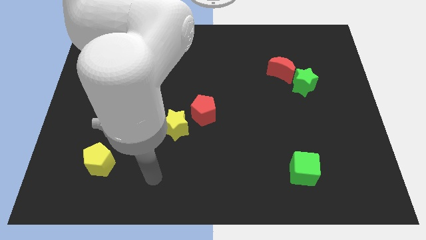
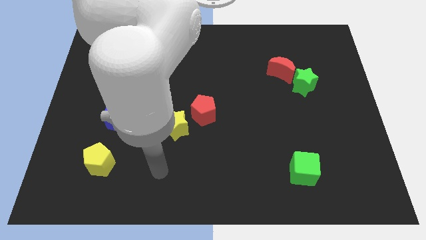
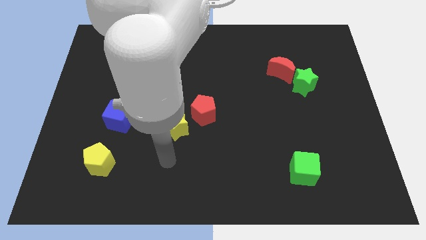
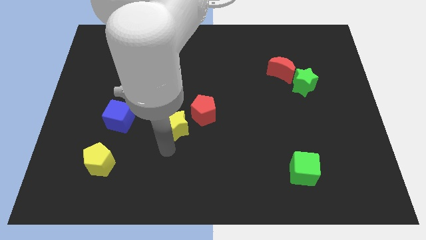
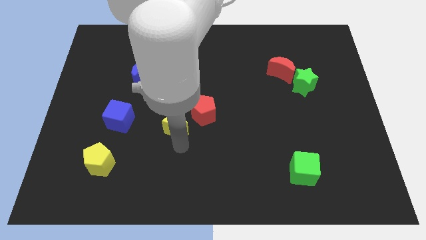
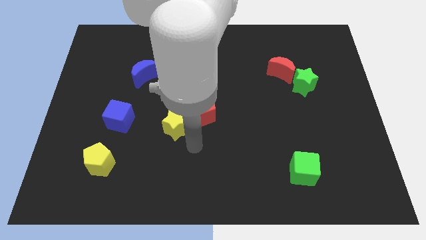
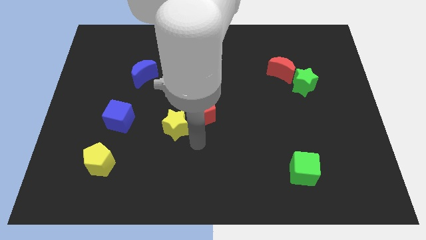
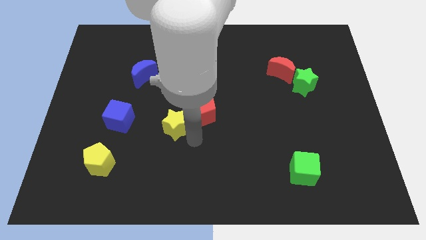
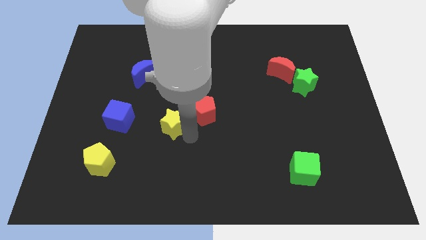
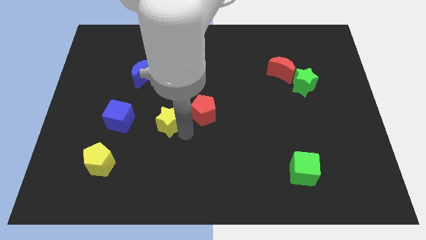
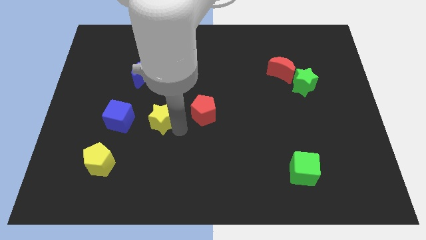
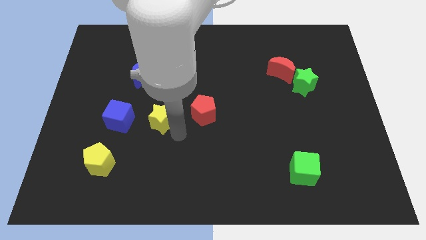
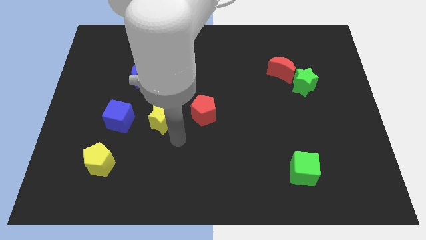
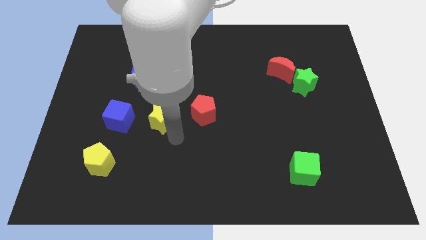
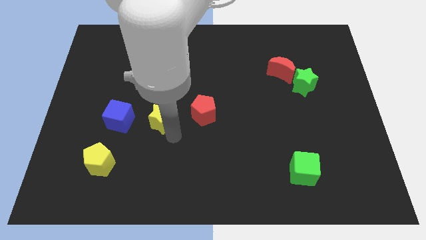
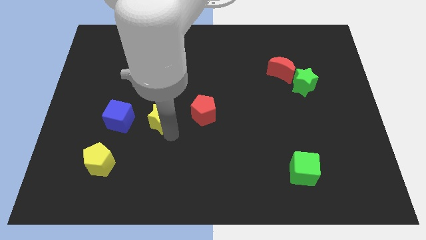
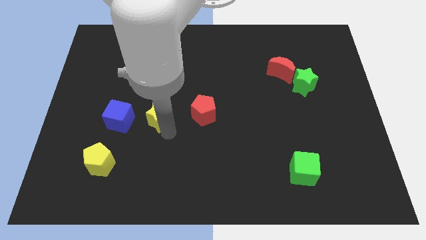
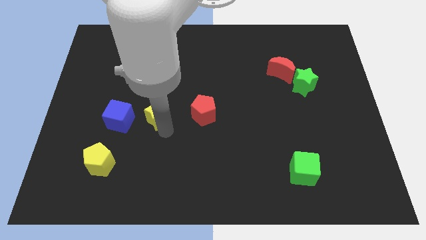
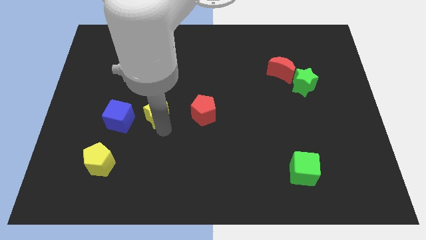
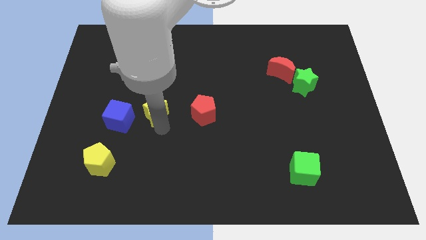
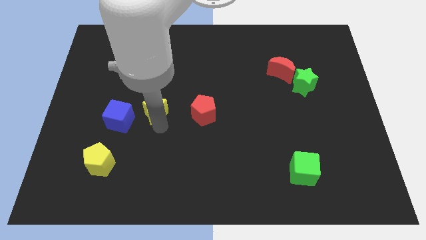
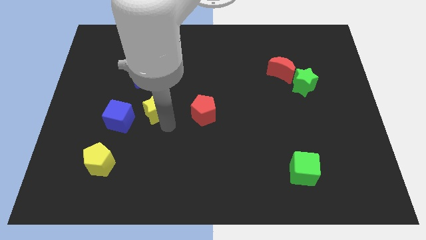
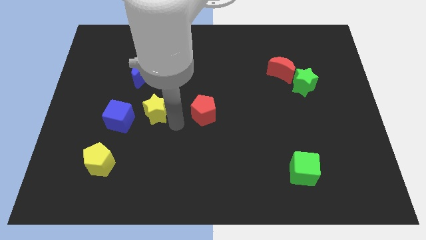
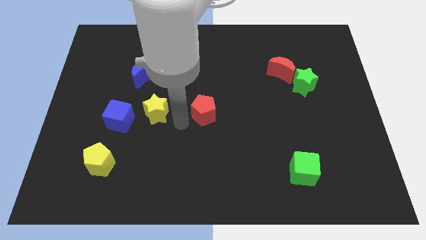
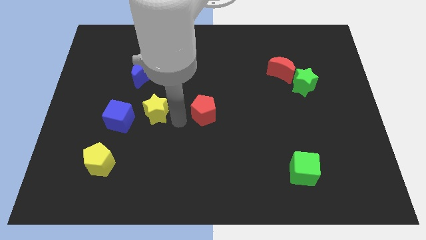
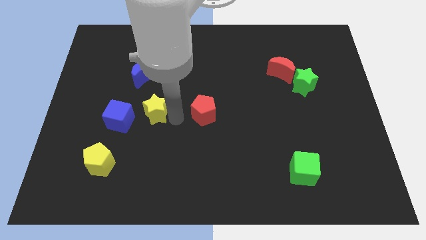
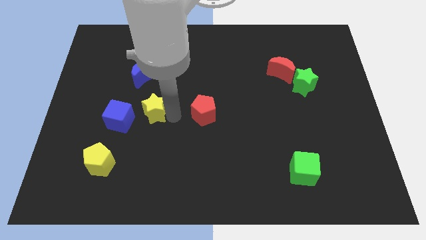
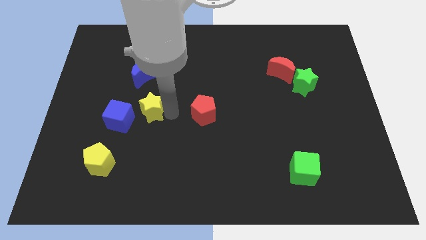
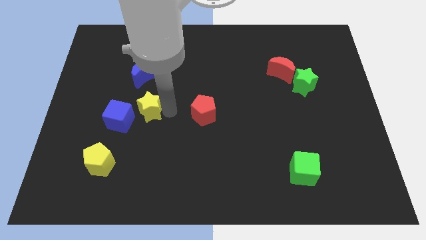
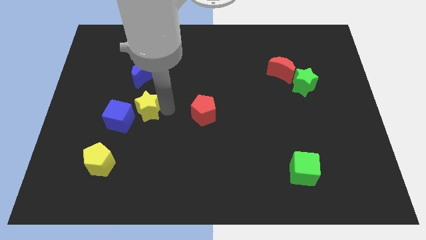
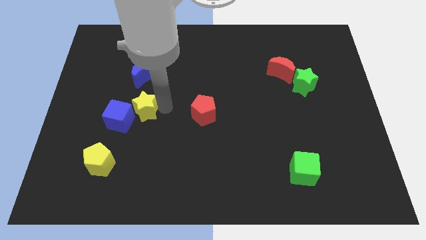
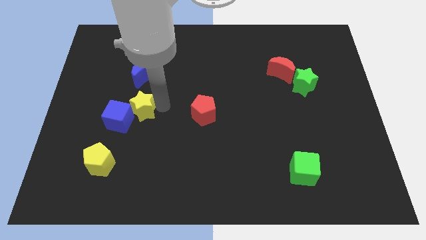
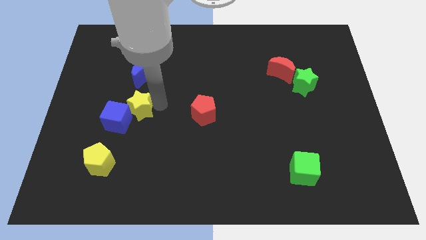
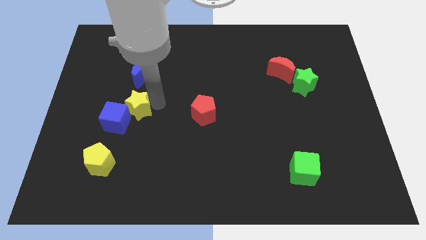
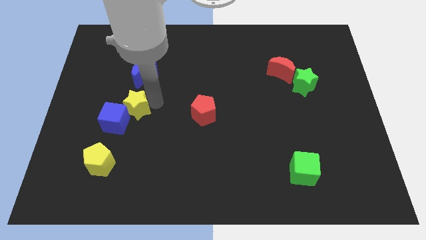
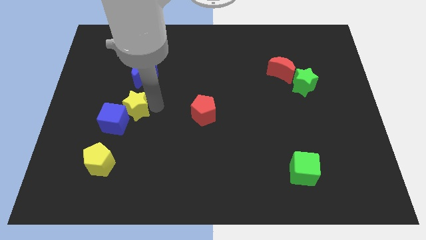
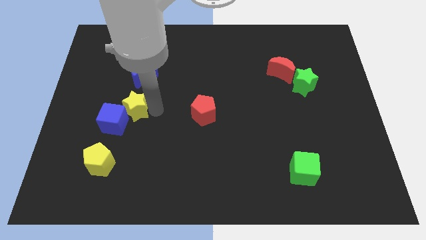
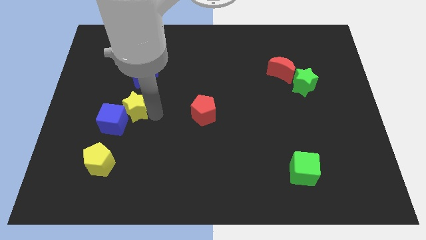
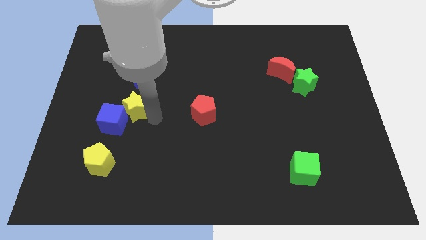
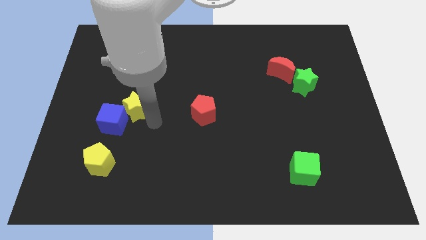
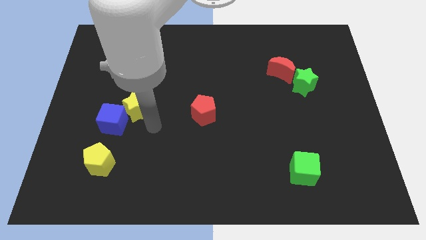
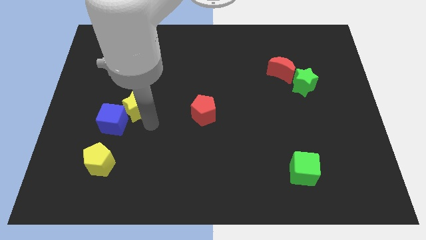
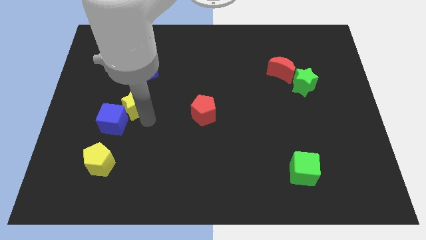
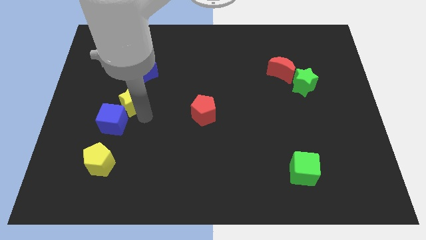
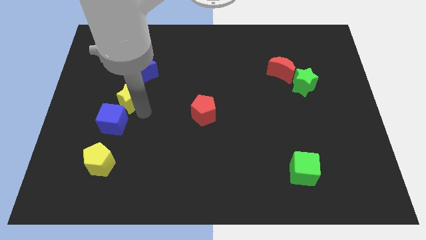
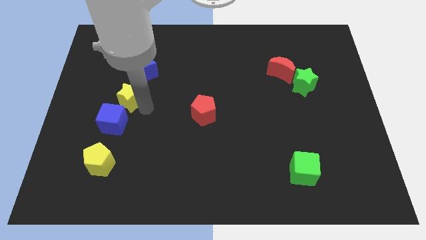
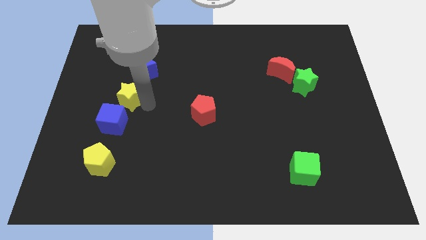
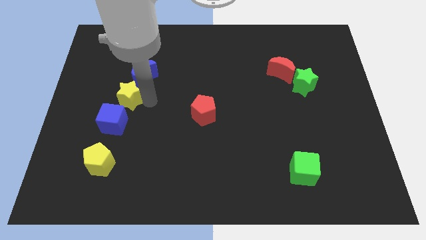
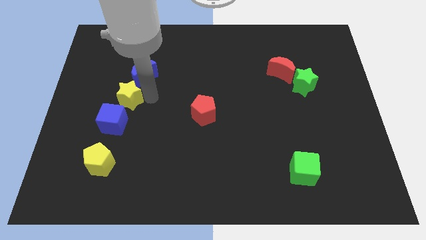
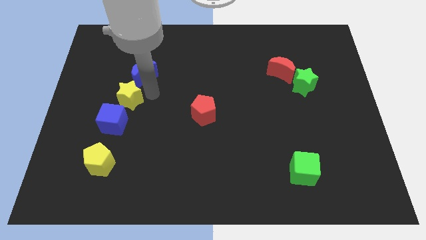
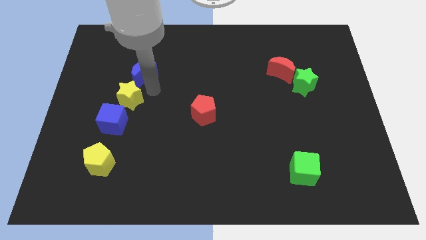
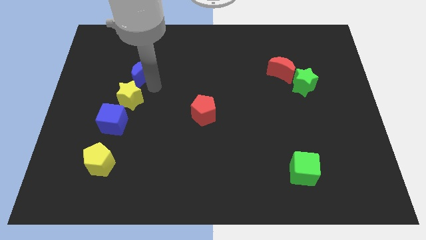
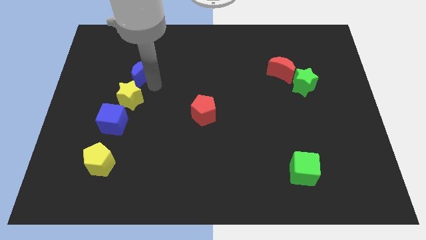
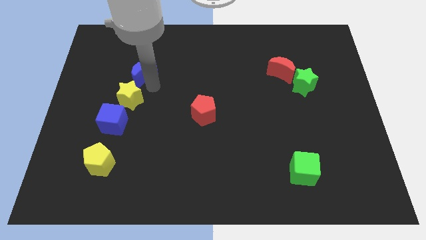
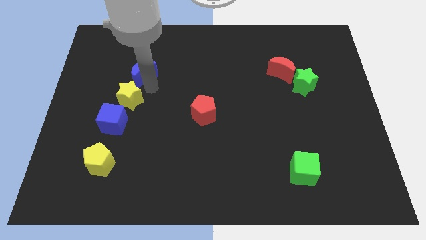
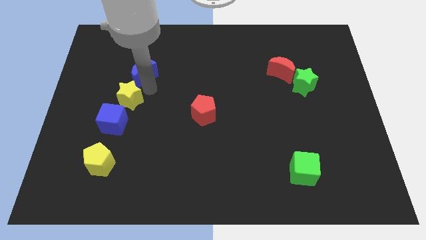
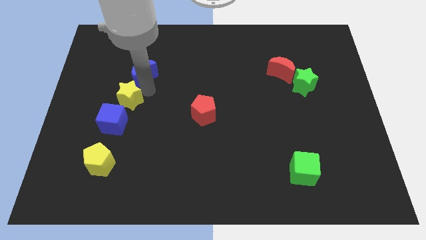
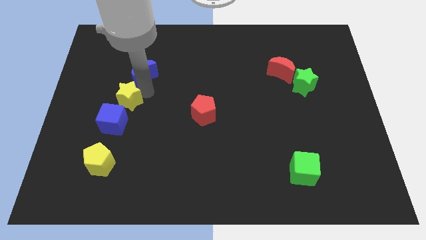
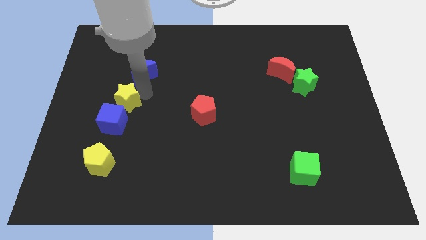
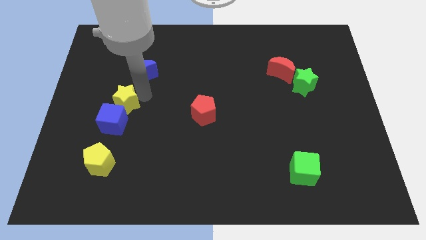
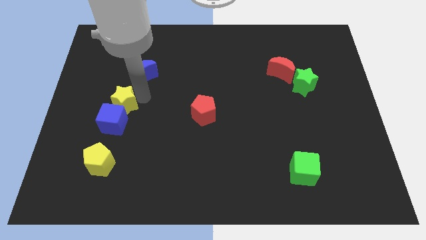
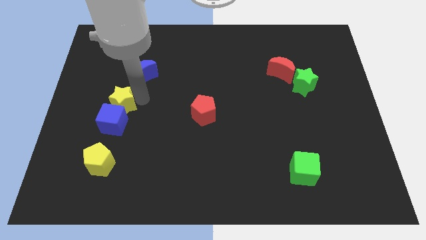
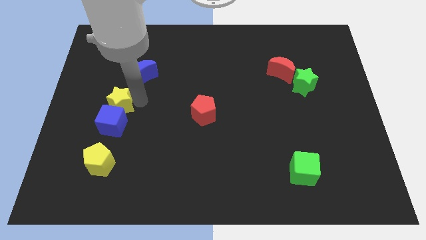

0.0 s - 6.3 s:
slide the yellow star above the yellow pentagon

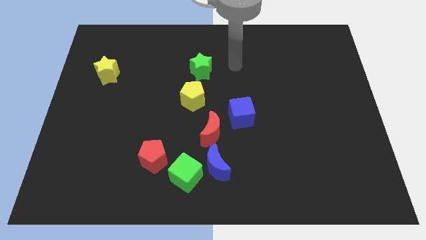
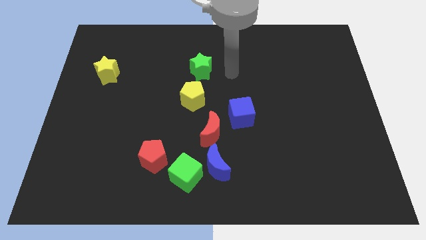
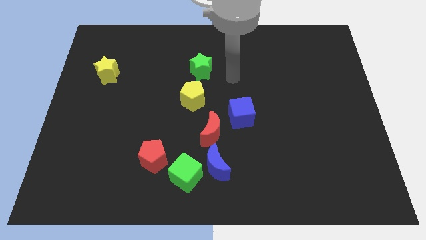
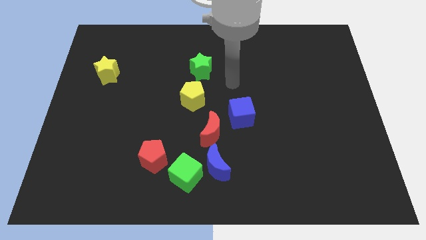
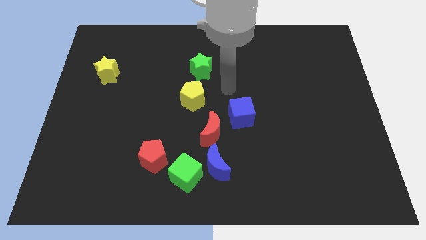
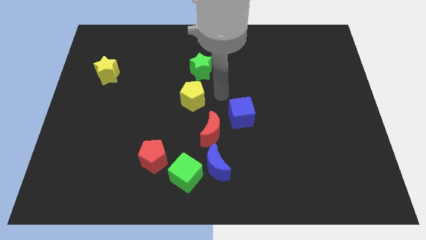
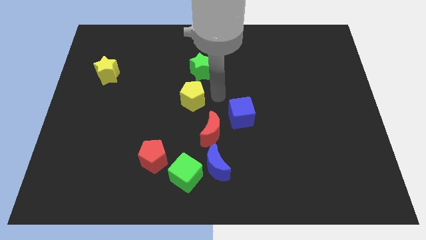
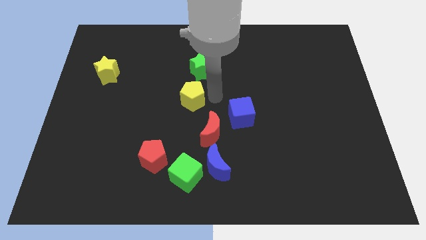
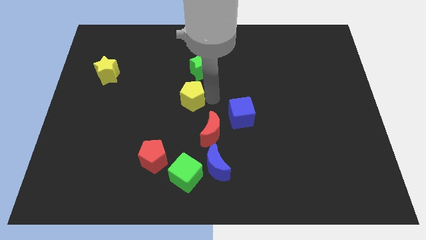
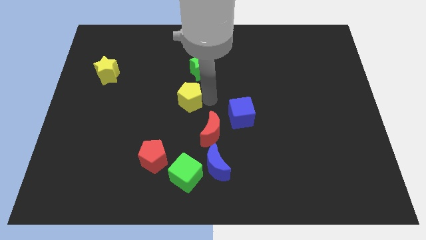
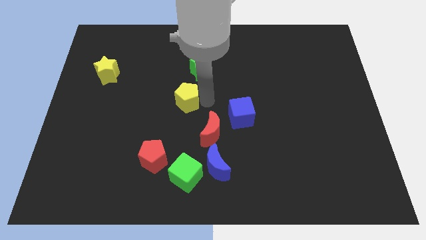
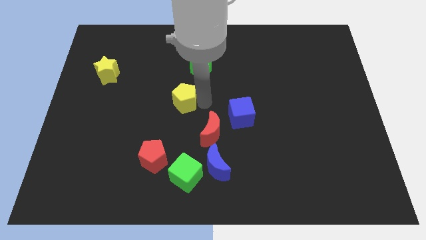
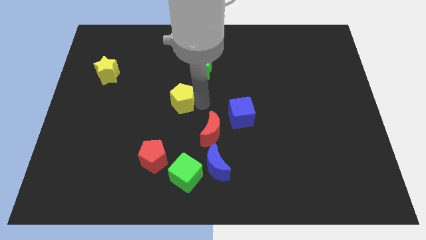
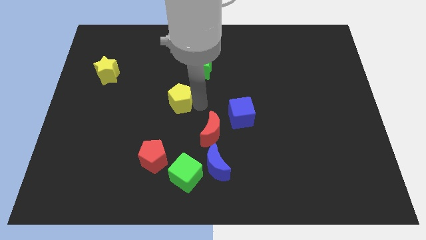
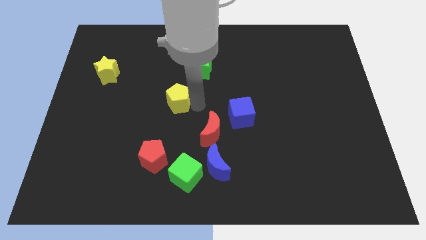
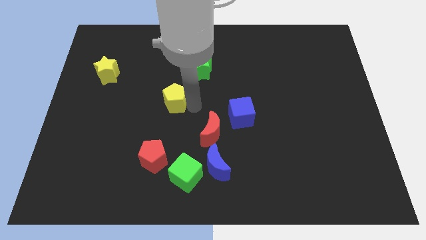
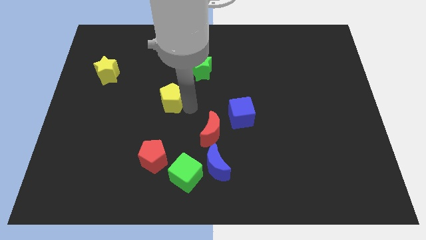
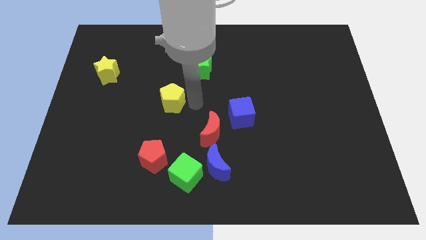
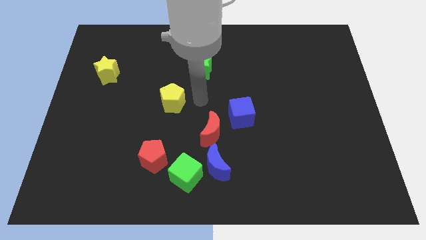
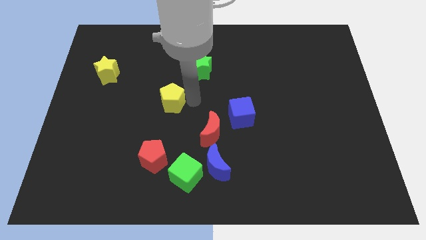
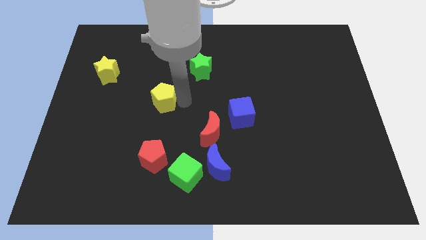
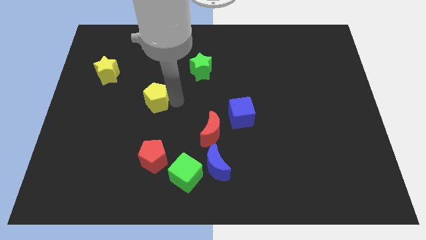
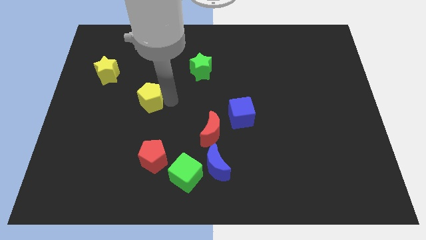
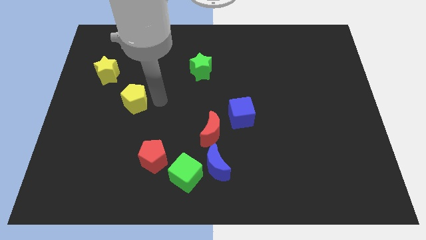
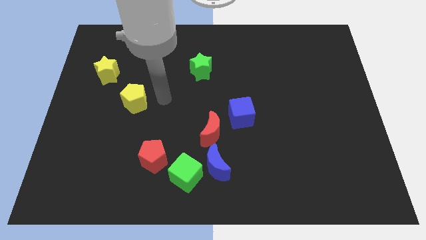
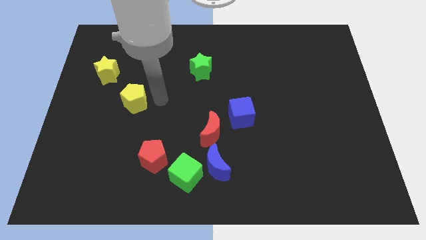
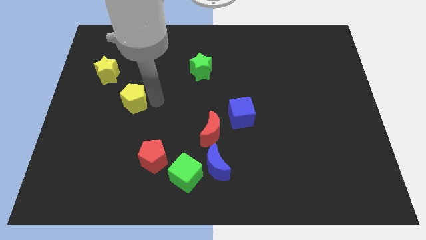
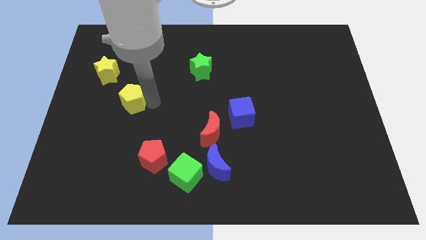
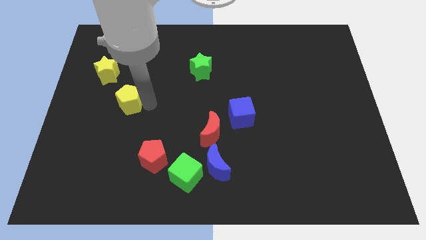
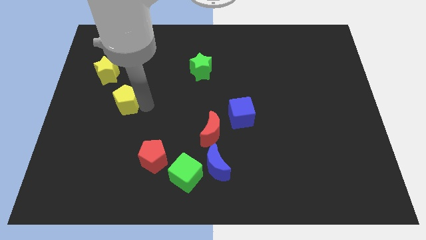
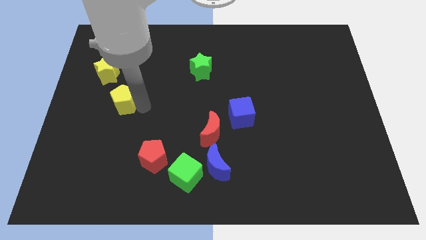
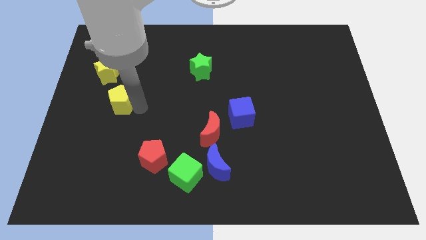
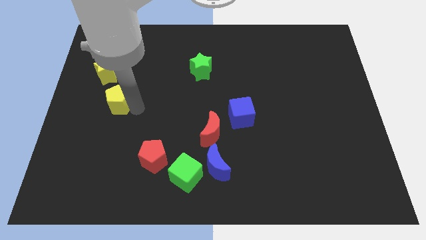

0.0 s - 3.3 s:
move the yellow pentagon below the yellow star
